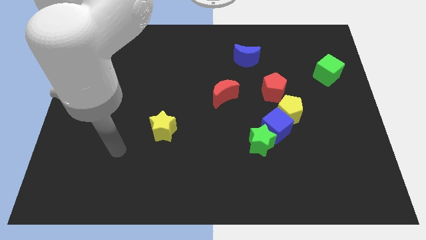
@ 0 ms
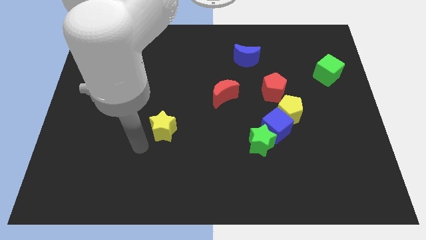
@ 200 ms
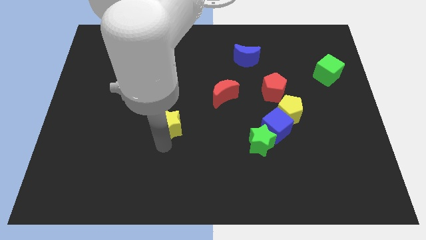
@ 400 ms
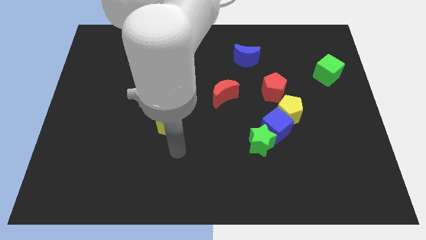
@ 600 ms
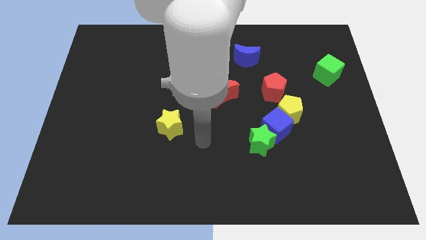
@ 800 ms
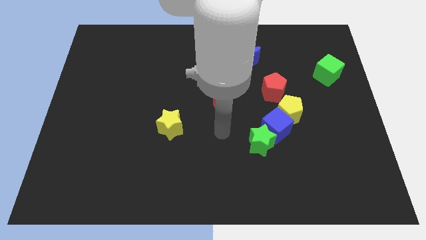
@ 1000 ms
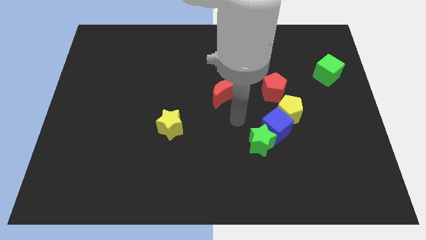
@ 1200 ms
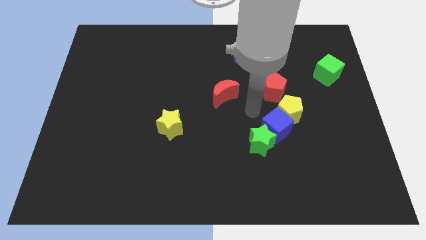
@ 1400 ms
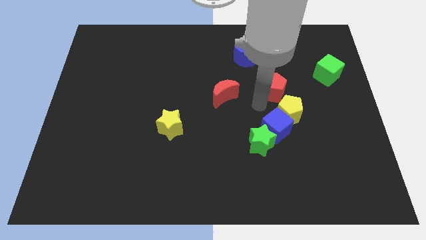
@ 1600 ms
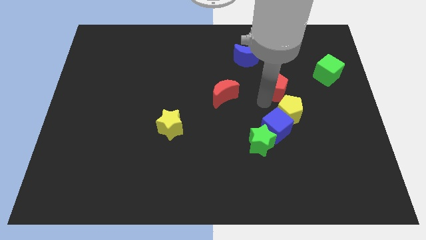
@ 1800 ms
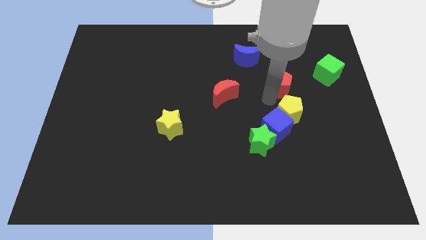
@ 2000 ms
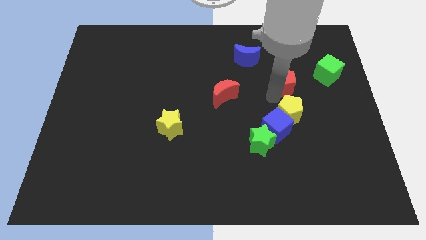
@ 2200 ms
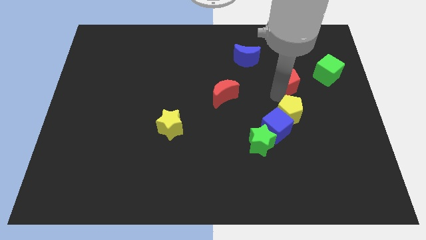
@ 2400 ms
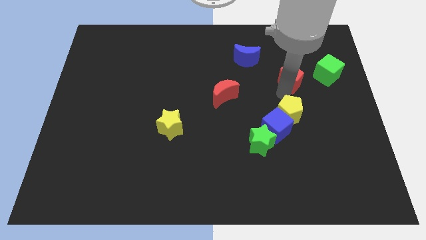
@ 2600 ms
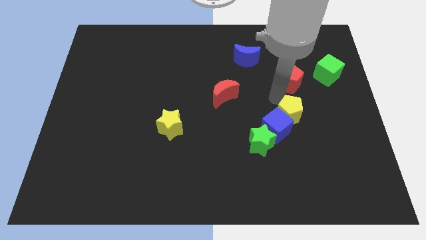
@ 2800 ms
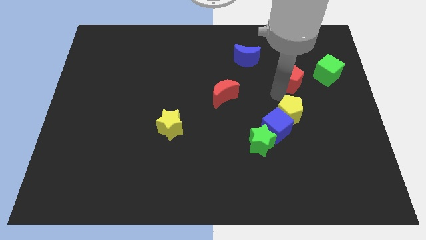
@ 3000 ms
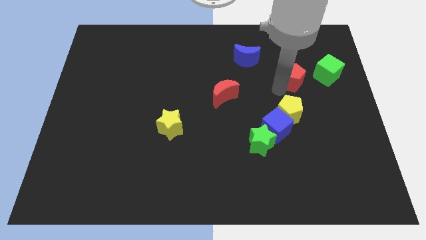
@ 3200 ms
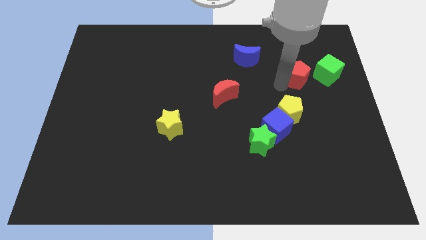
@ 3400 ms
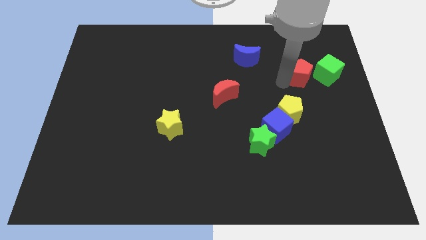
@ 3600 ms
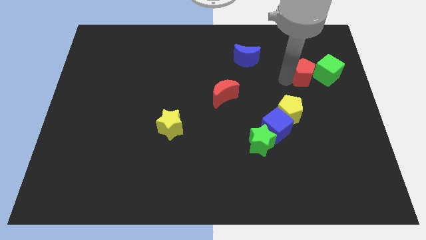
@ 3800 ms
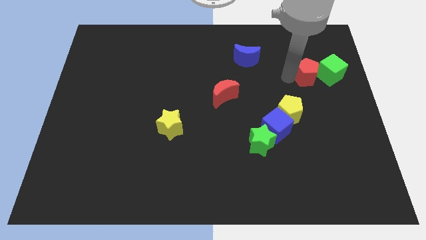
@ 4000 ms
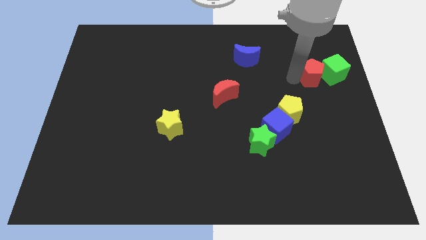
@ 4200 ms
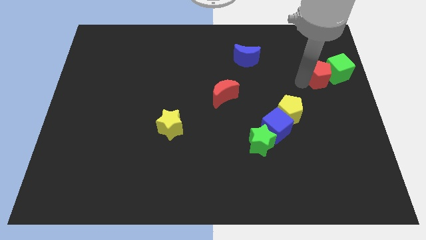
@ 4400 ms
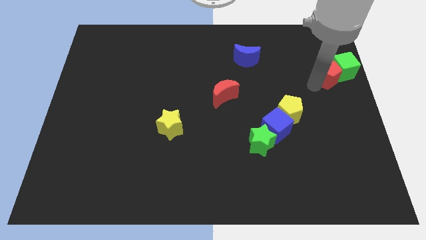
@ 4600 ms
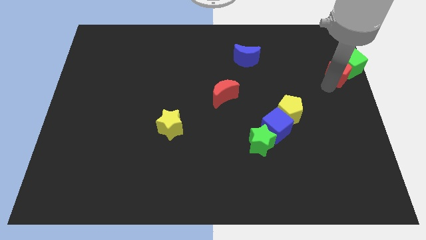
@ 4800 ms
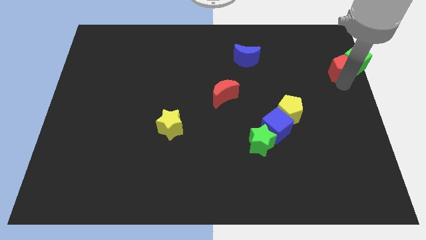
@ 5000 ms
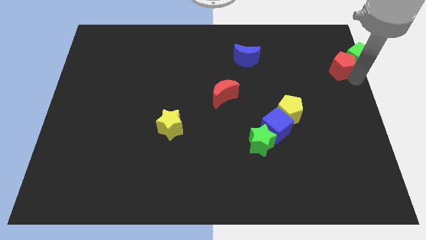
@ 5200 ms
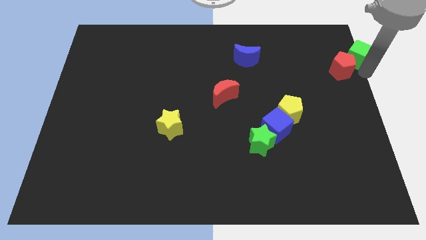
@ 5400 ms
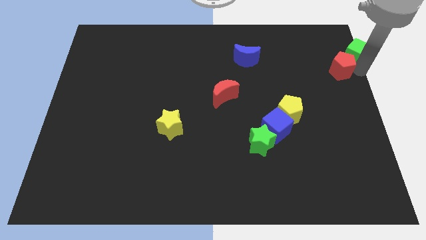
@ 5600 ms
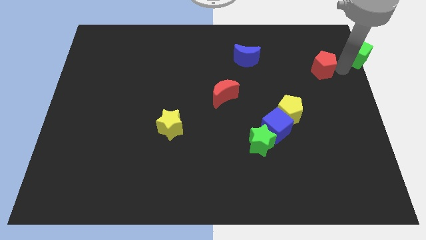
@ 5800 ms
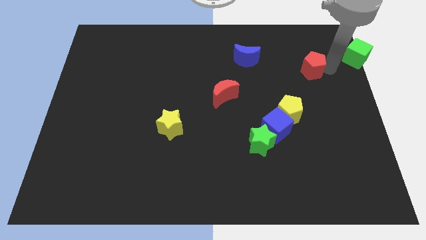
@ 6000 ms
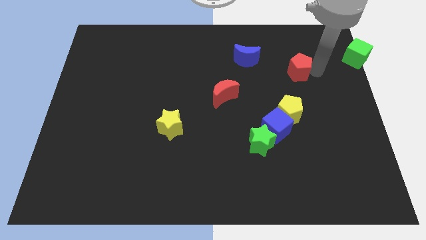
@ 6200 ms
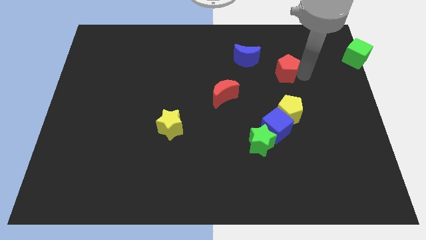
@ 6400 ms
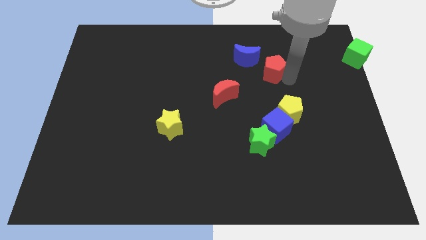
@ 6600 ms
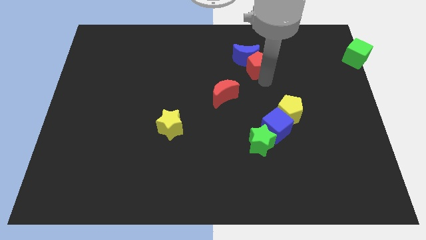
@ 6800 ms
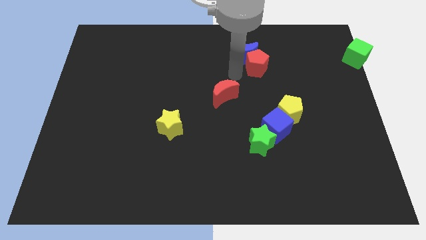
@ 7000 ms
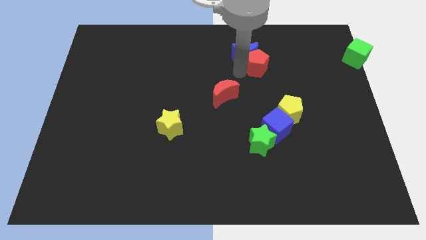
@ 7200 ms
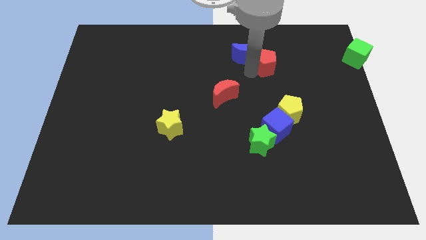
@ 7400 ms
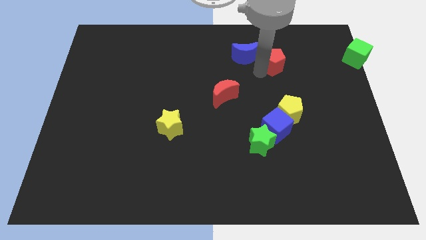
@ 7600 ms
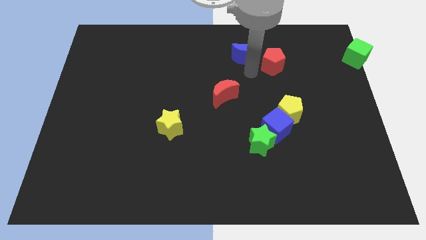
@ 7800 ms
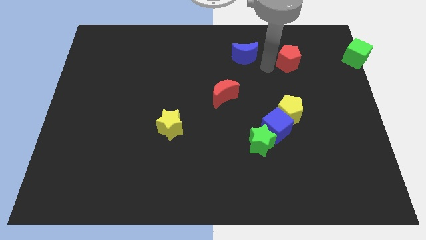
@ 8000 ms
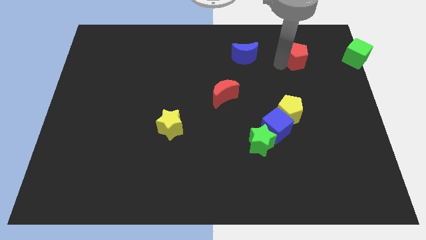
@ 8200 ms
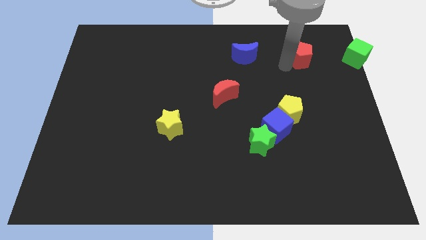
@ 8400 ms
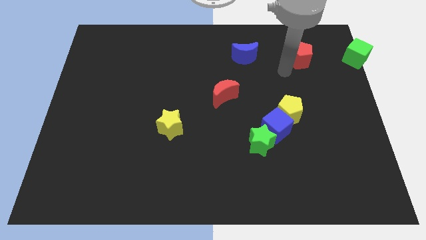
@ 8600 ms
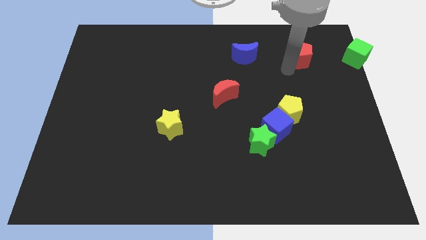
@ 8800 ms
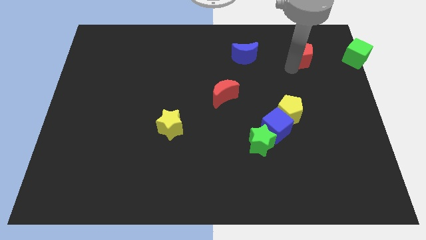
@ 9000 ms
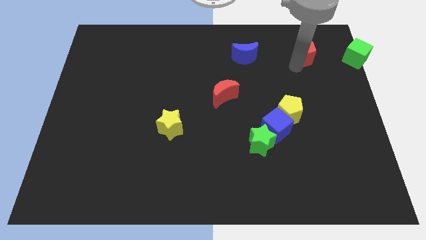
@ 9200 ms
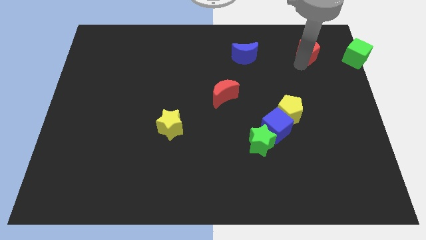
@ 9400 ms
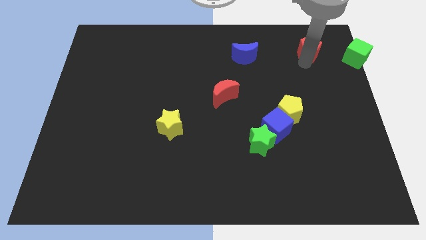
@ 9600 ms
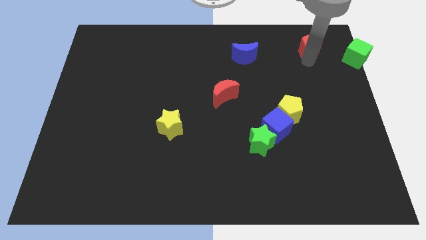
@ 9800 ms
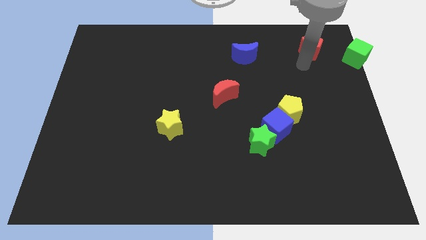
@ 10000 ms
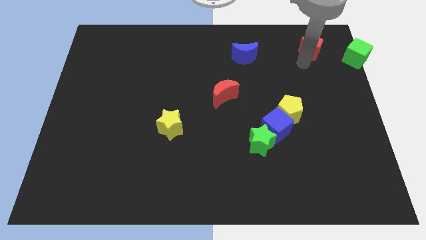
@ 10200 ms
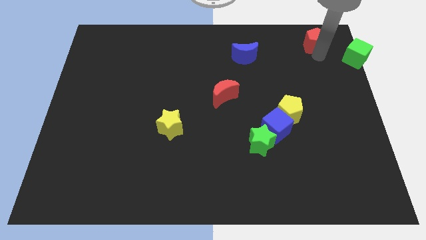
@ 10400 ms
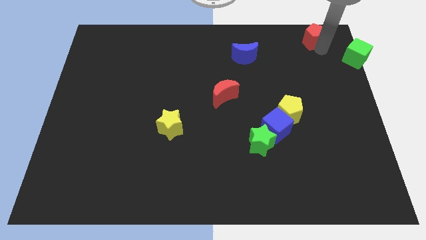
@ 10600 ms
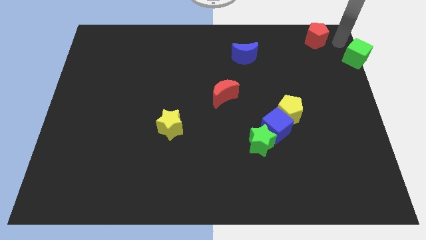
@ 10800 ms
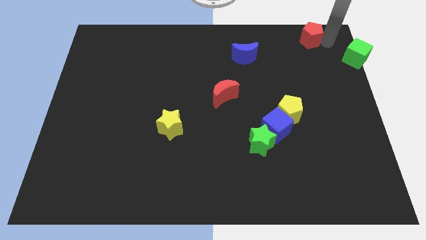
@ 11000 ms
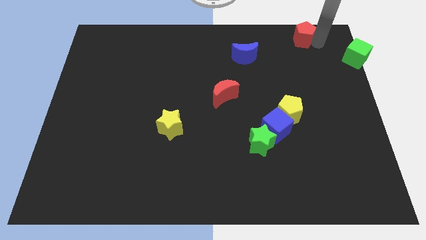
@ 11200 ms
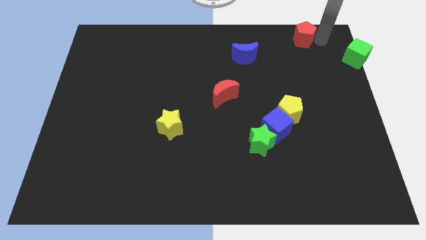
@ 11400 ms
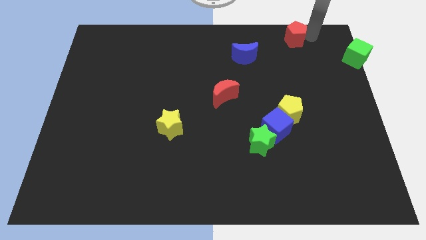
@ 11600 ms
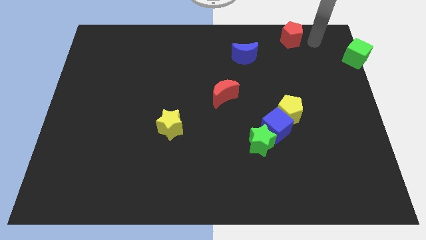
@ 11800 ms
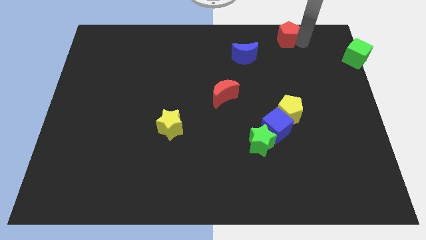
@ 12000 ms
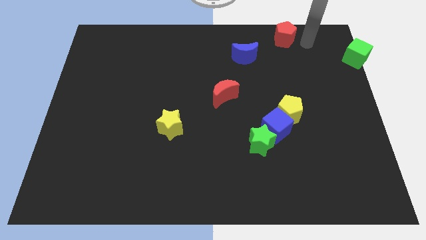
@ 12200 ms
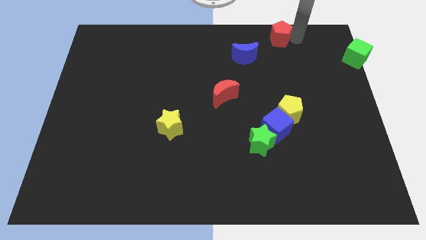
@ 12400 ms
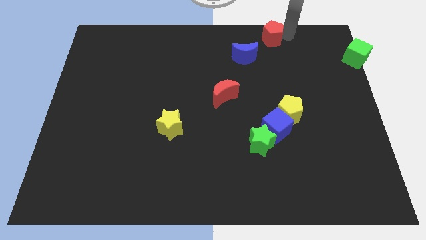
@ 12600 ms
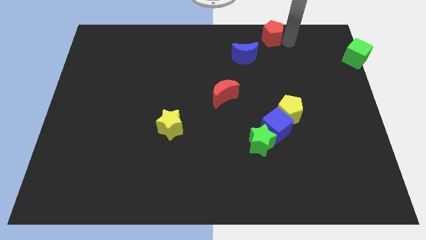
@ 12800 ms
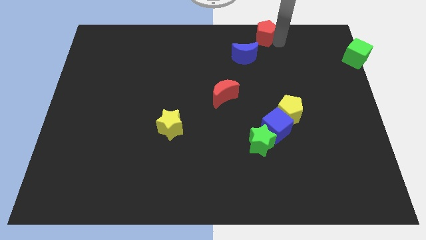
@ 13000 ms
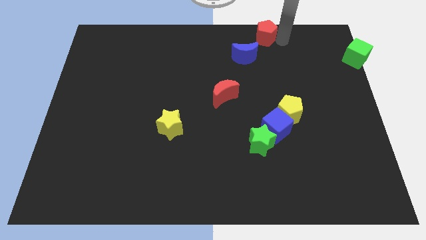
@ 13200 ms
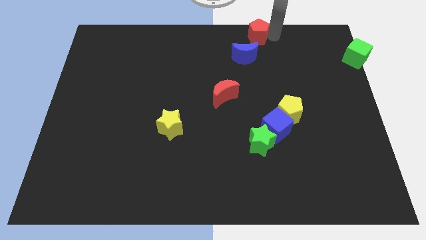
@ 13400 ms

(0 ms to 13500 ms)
slide the red pentagon to the towards your base
